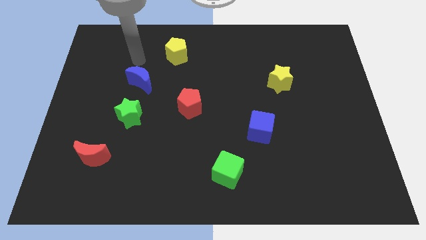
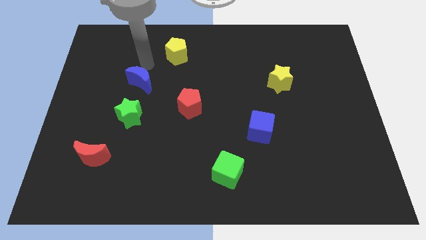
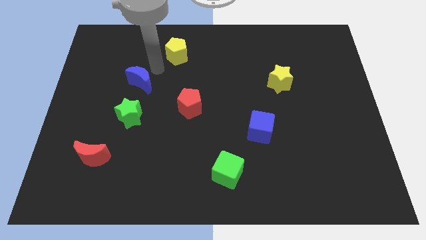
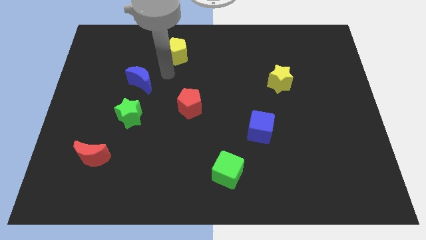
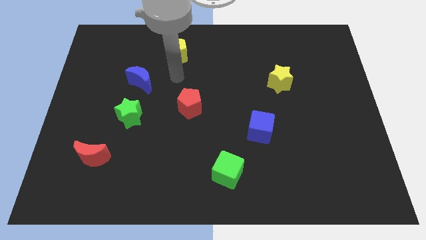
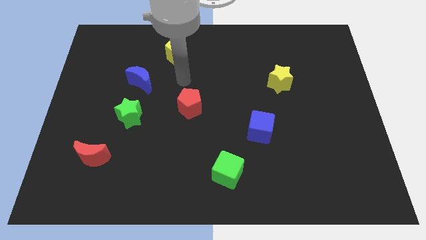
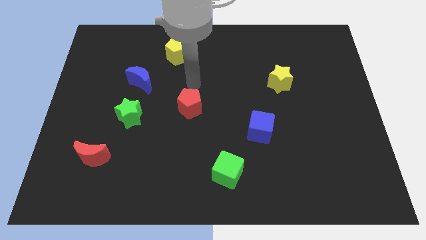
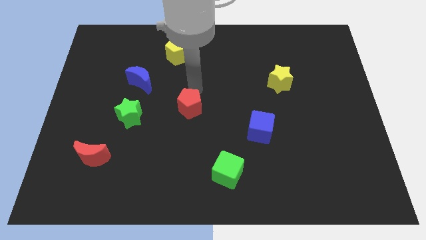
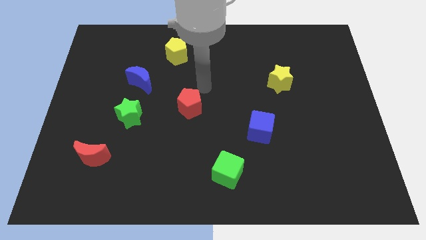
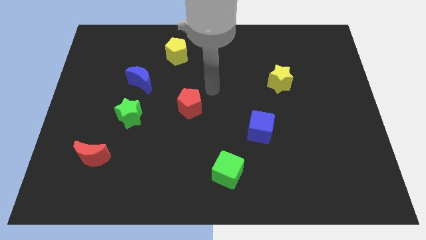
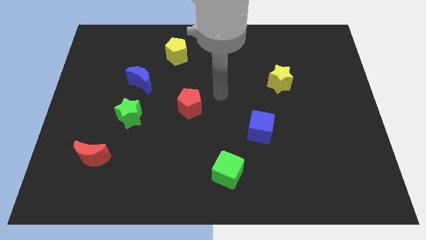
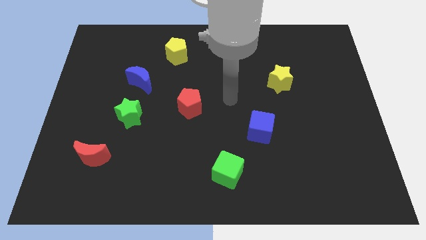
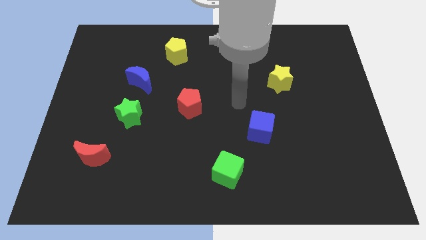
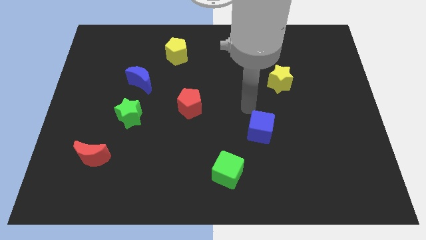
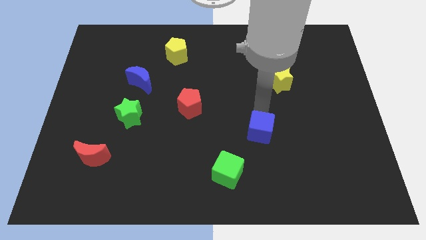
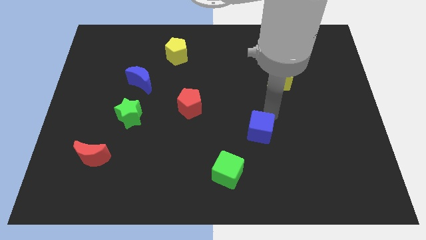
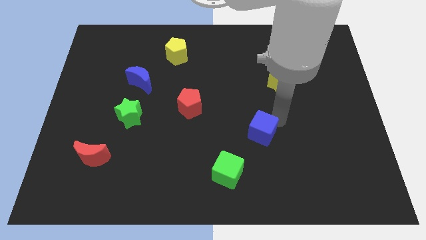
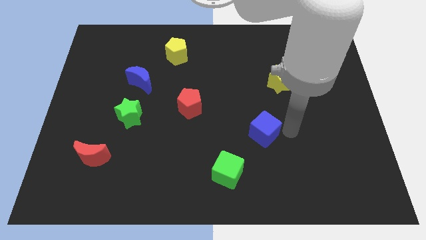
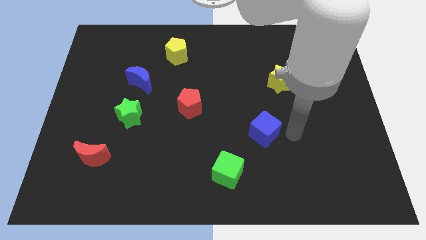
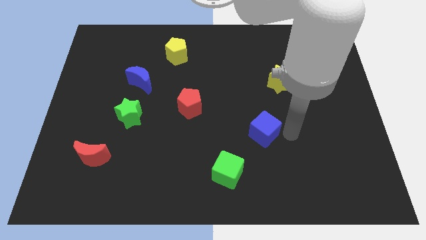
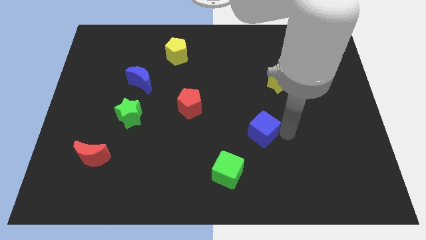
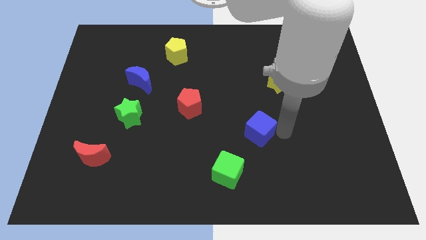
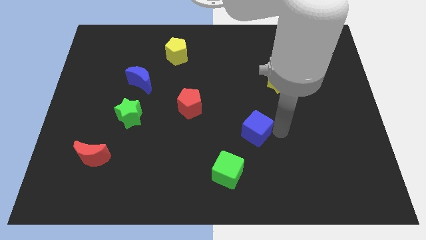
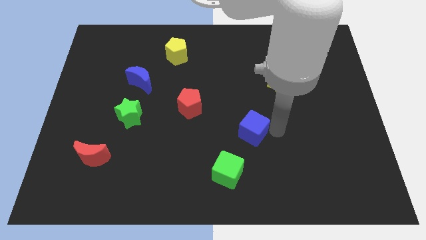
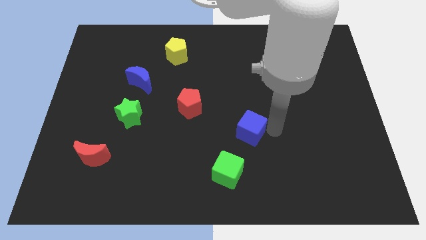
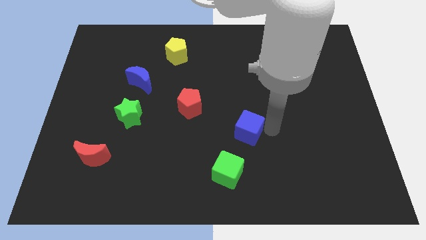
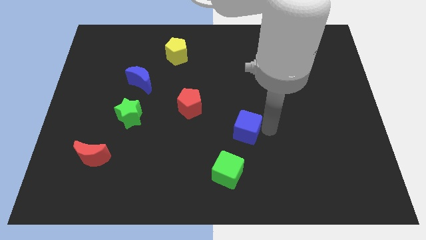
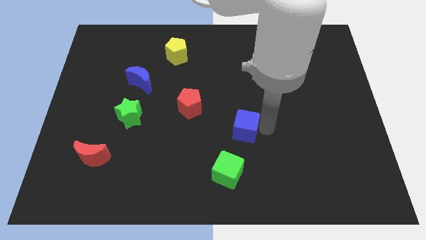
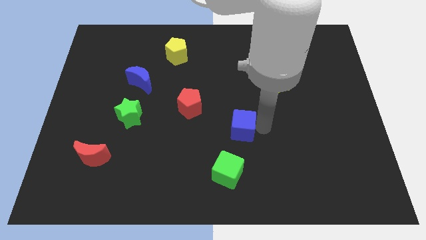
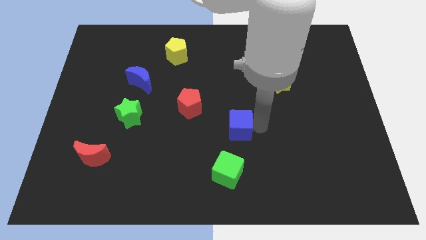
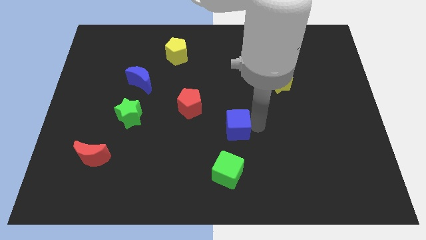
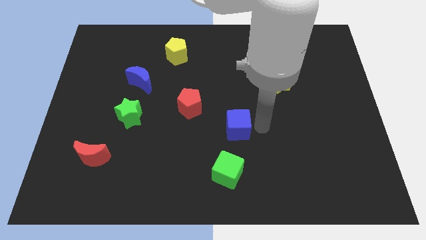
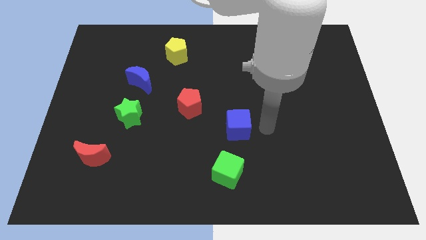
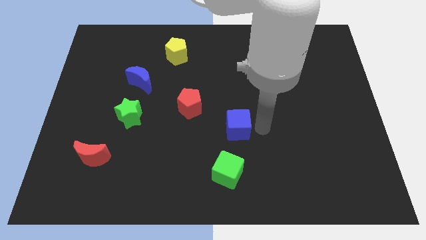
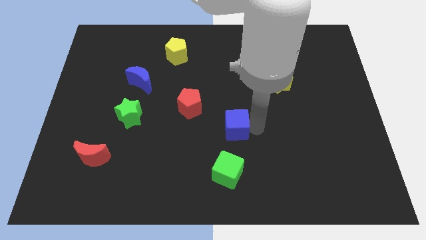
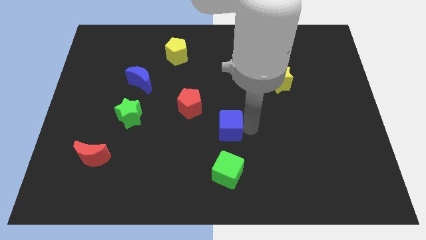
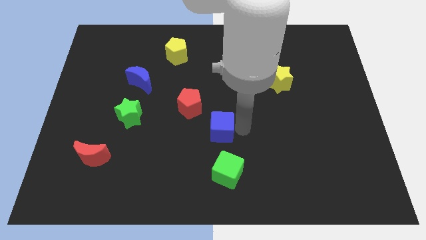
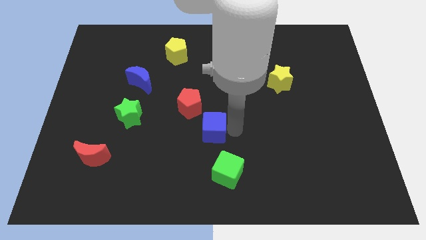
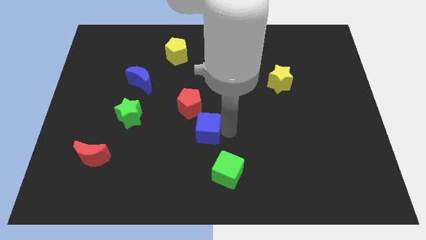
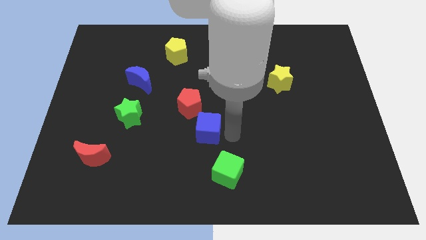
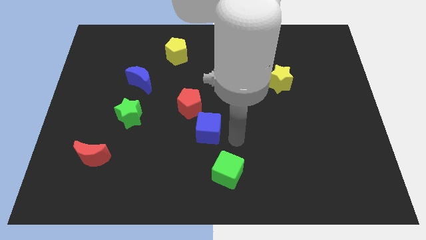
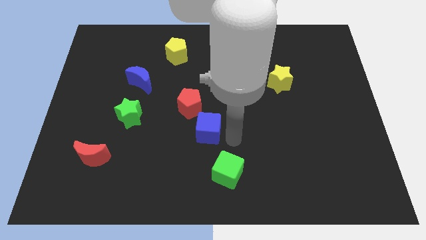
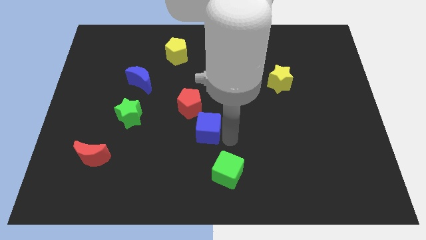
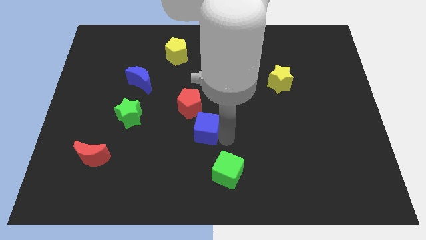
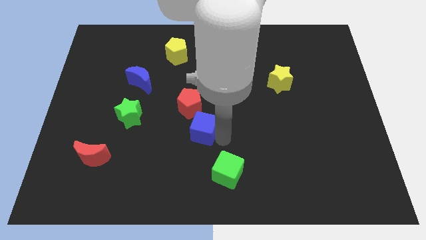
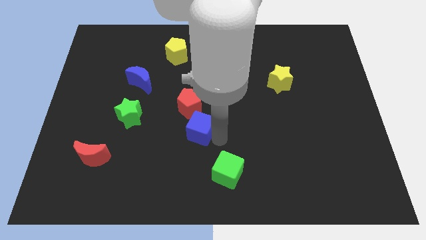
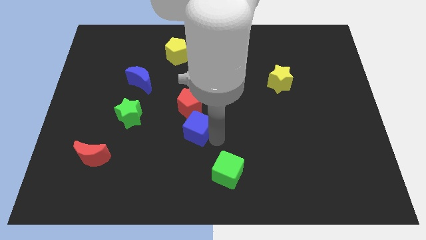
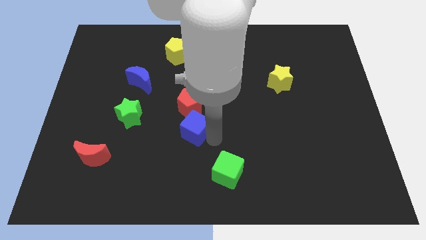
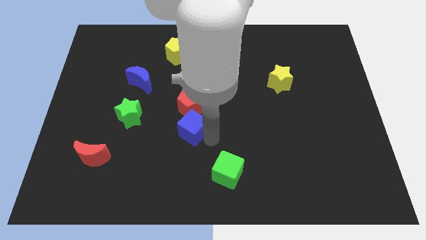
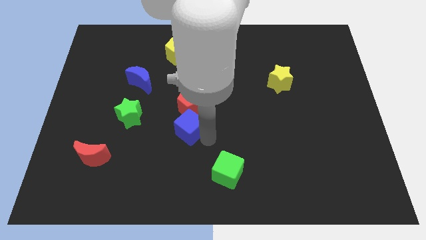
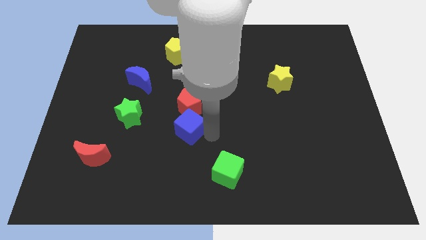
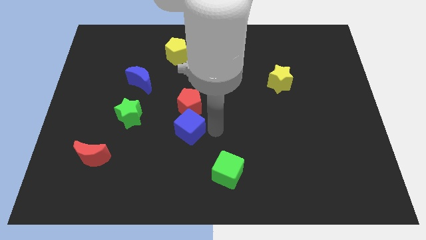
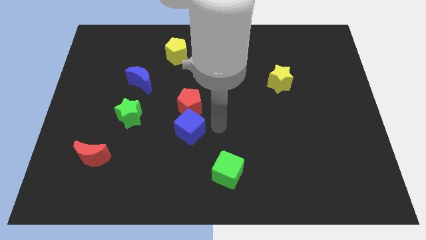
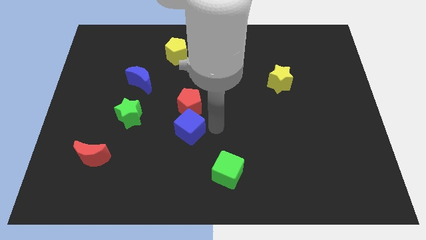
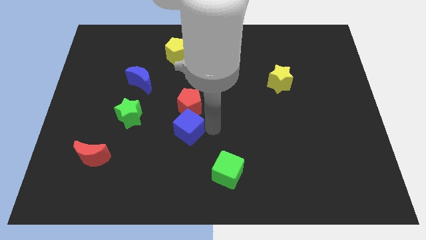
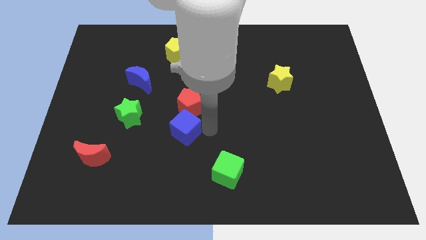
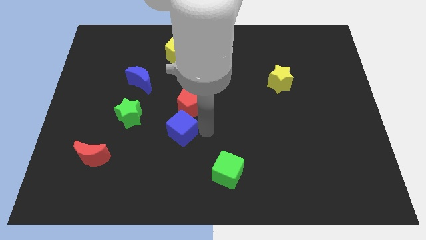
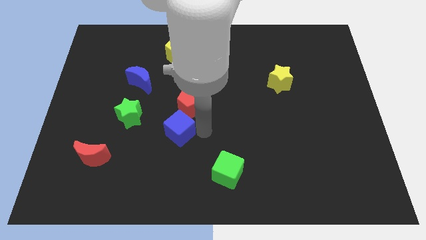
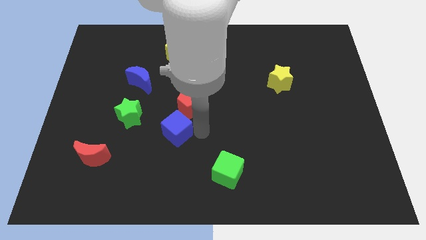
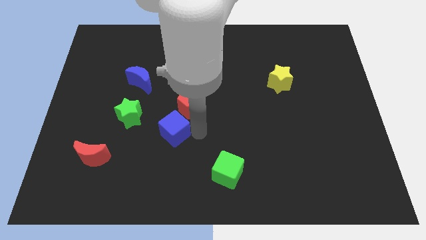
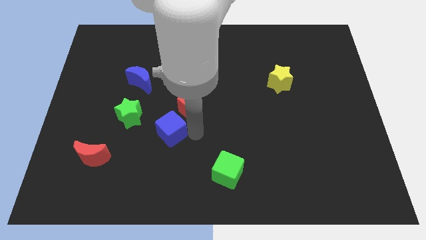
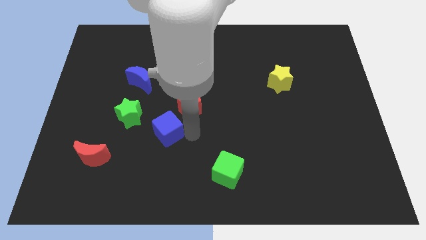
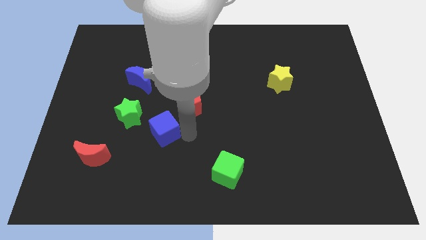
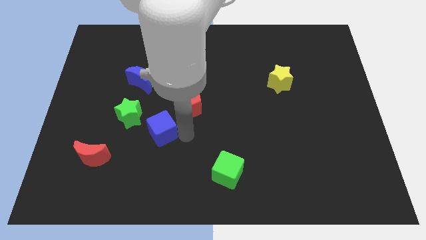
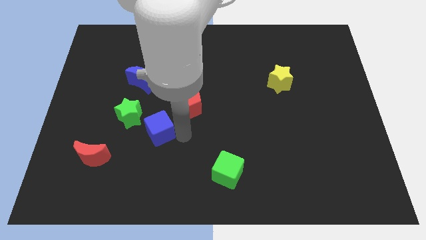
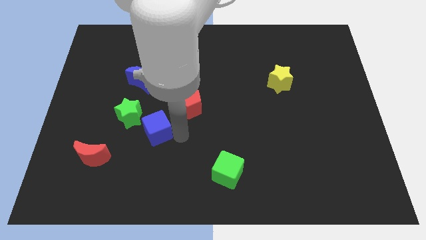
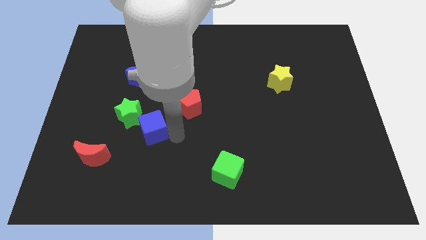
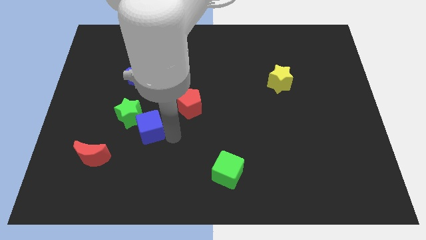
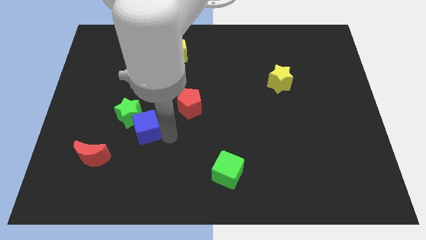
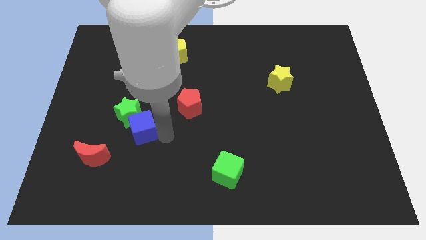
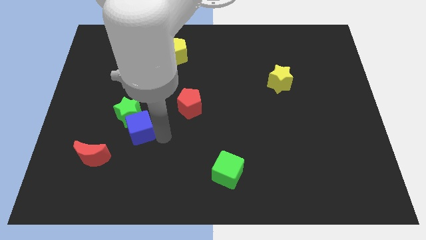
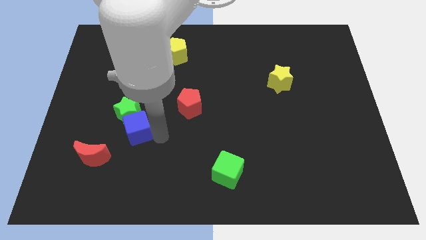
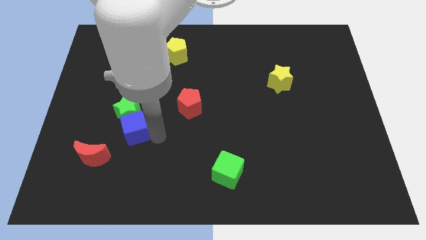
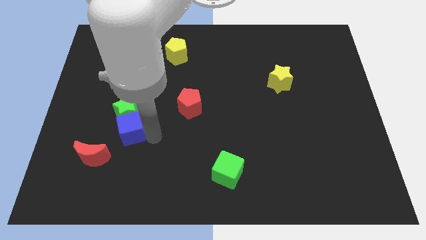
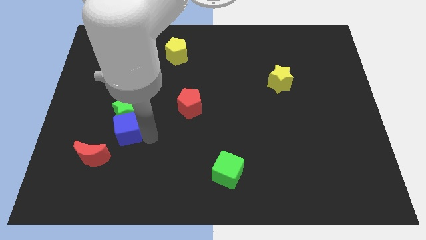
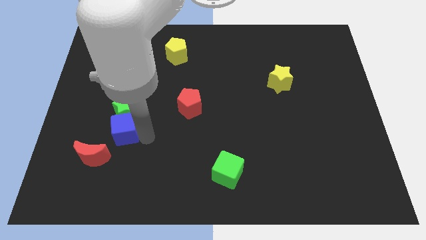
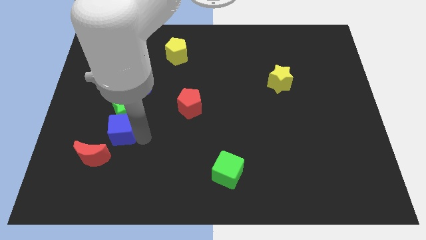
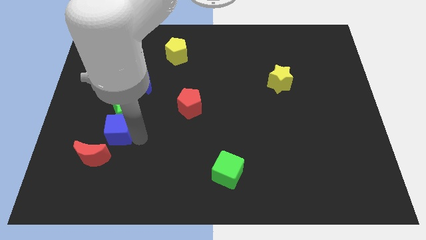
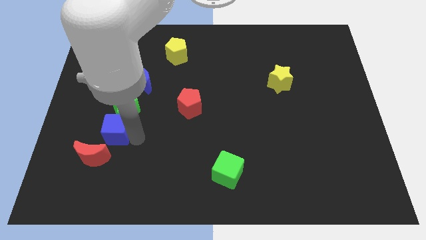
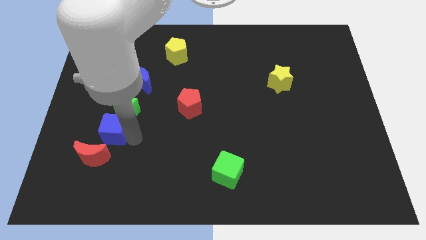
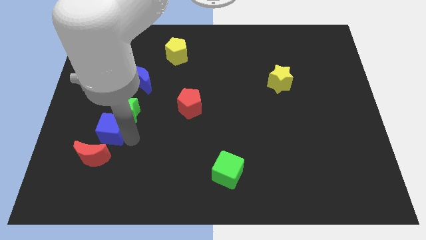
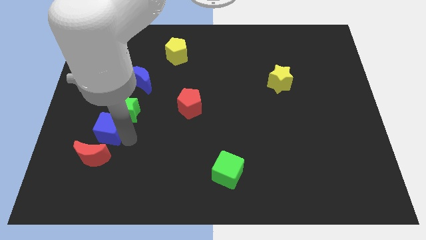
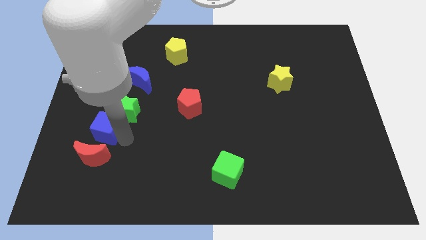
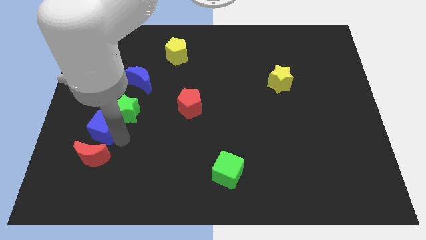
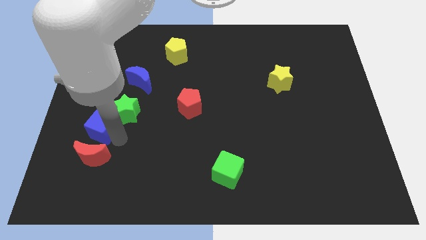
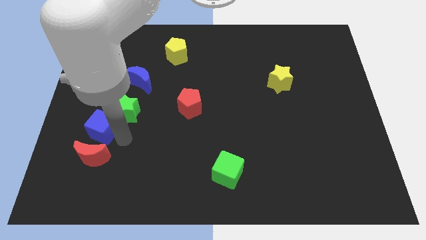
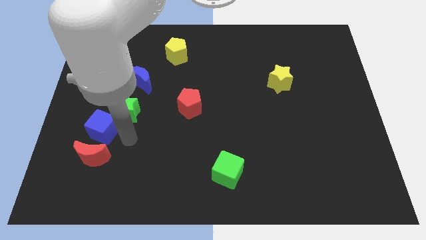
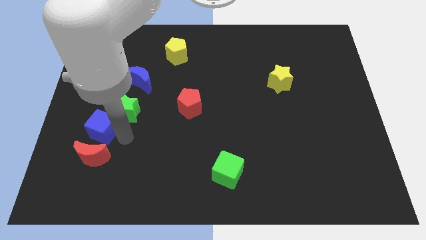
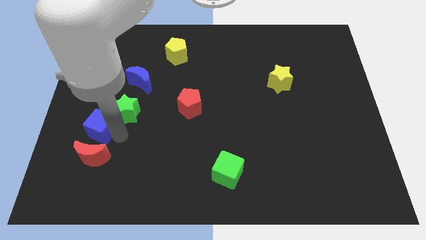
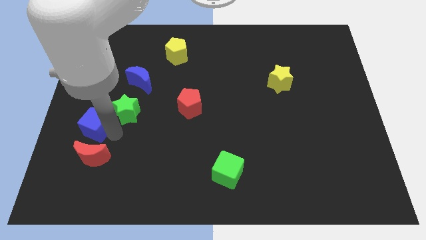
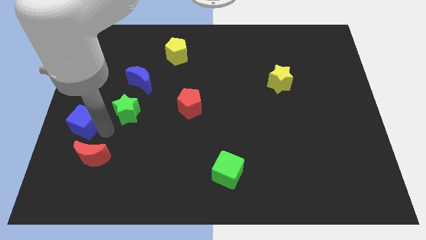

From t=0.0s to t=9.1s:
slide the blue cube to the center left
